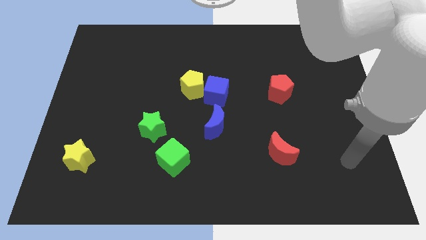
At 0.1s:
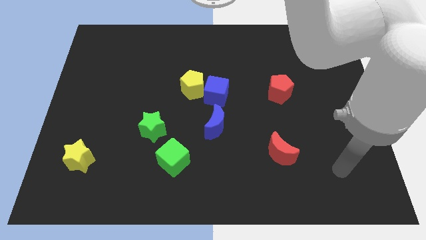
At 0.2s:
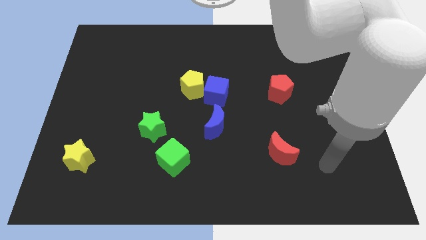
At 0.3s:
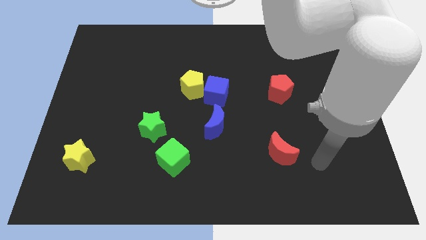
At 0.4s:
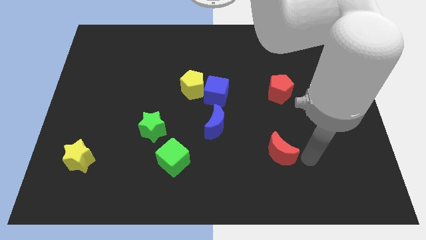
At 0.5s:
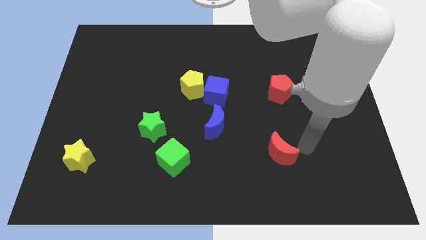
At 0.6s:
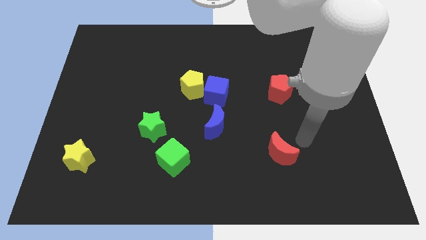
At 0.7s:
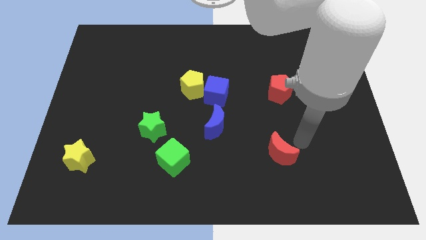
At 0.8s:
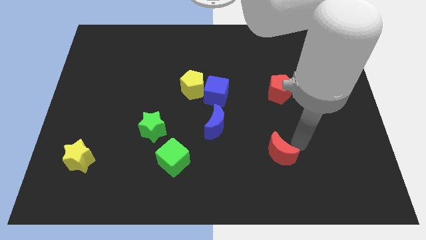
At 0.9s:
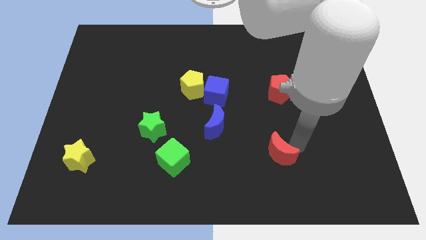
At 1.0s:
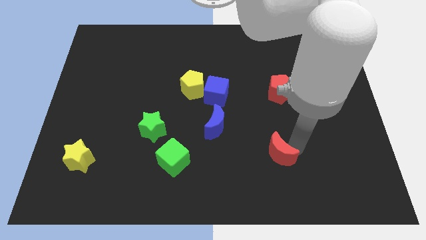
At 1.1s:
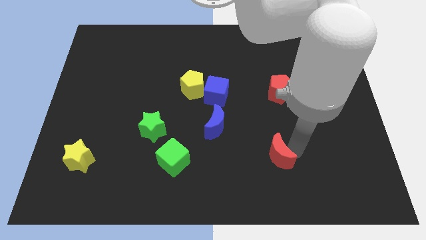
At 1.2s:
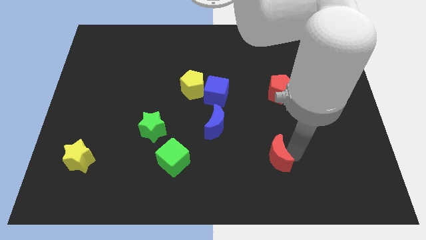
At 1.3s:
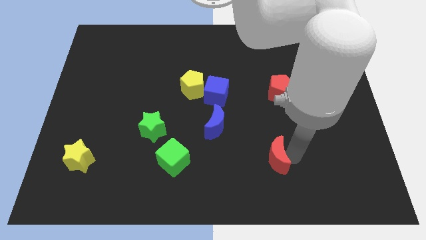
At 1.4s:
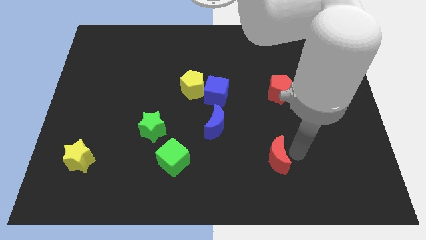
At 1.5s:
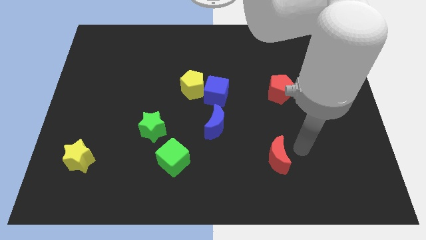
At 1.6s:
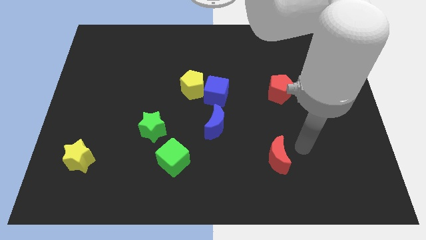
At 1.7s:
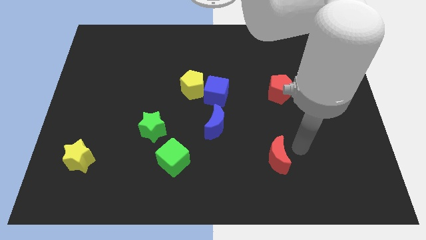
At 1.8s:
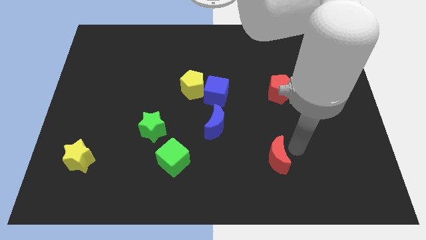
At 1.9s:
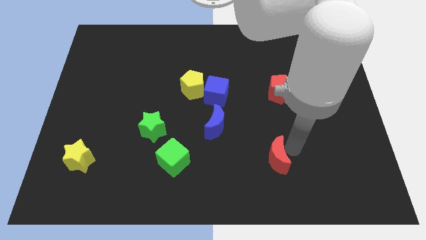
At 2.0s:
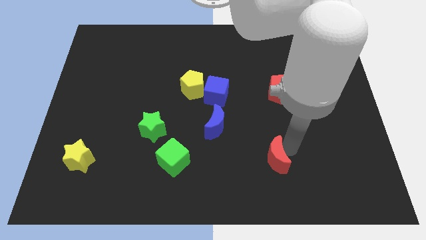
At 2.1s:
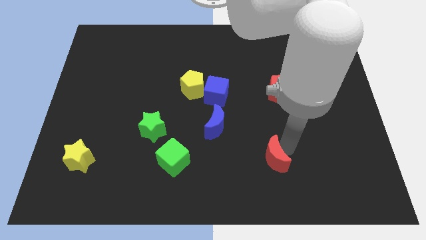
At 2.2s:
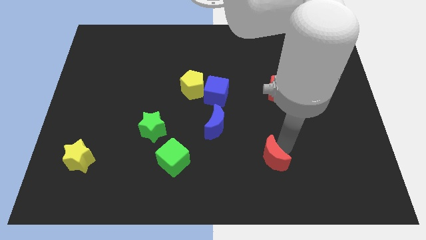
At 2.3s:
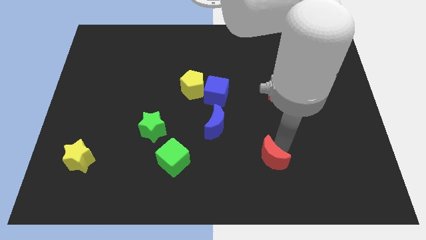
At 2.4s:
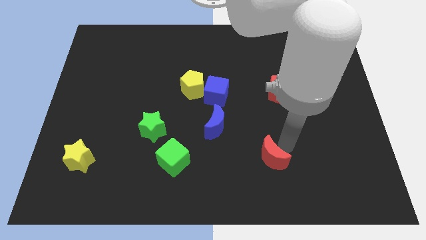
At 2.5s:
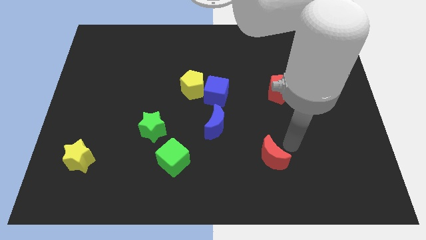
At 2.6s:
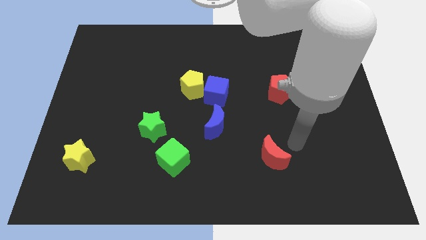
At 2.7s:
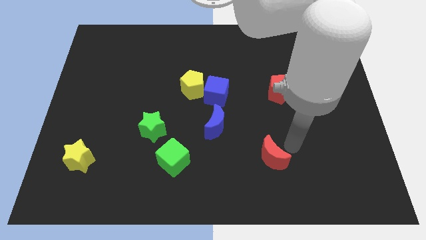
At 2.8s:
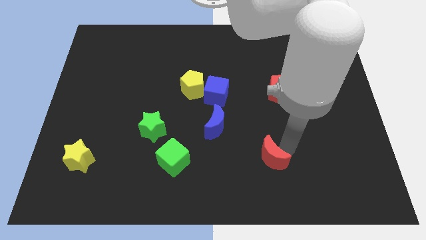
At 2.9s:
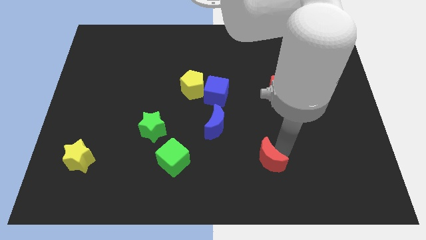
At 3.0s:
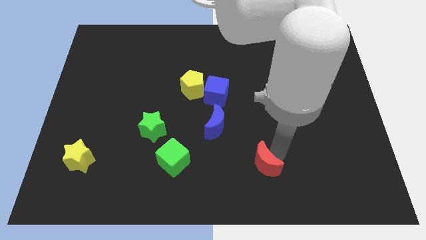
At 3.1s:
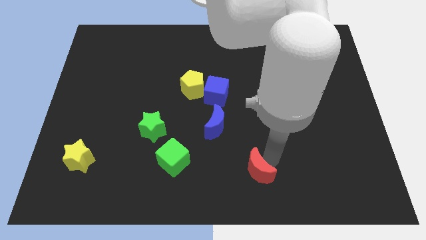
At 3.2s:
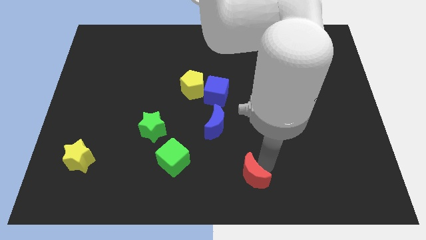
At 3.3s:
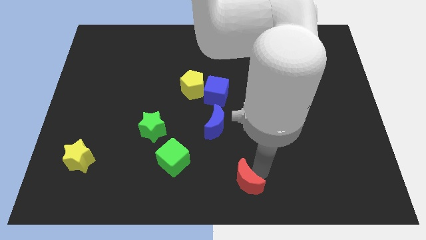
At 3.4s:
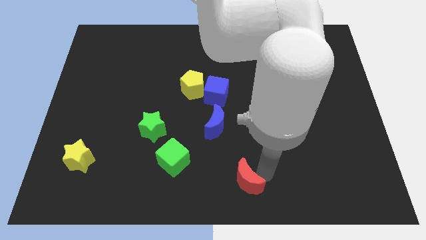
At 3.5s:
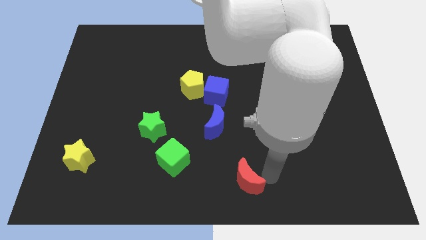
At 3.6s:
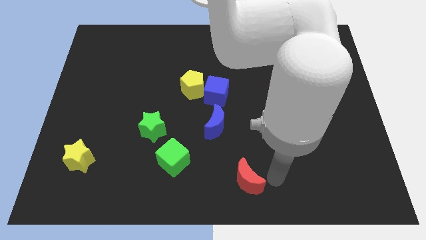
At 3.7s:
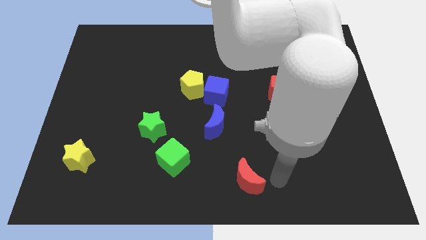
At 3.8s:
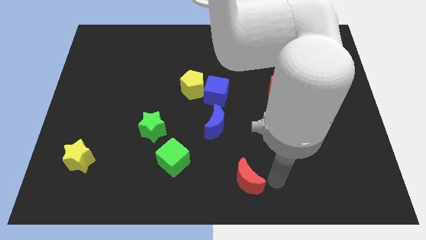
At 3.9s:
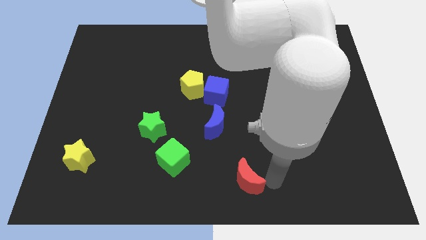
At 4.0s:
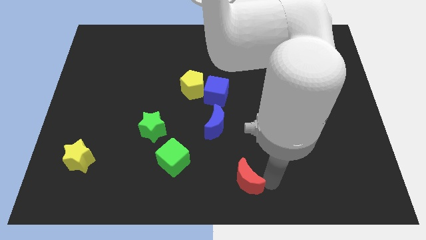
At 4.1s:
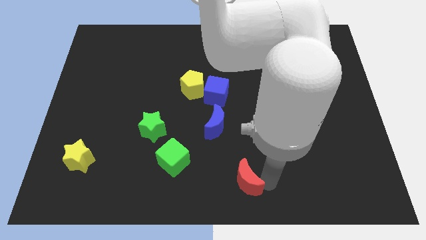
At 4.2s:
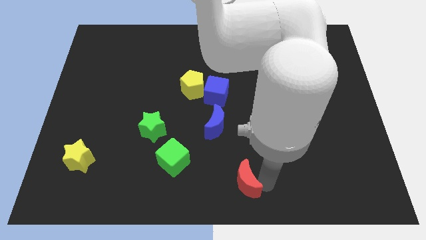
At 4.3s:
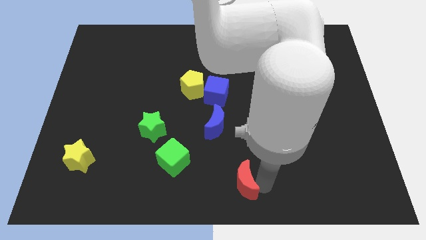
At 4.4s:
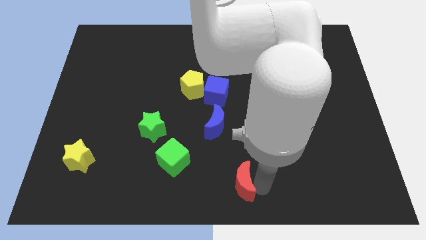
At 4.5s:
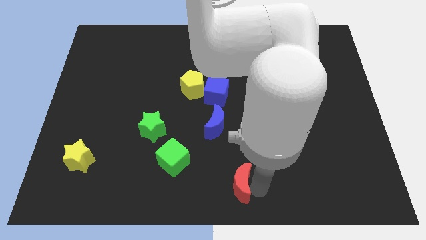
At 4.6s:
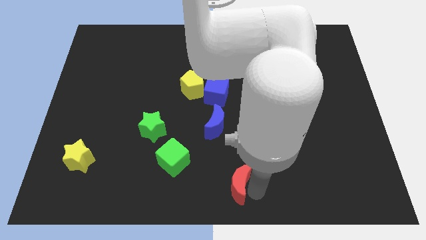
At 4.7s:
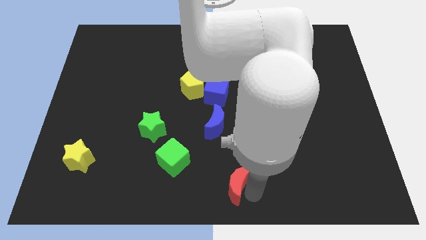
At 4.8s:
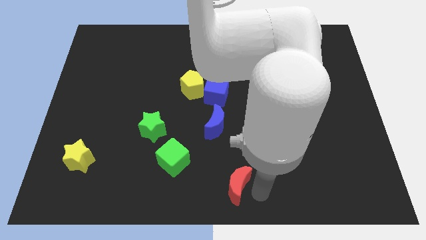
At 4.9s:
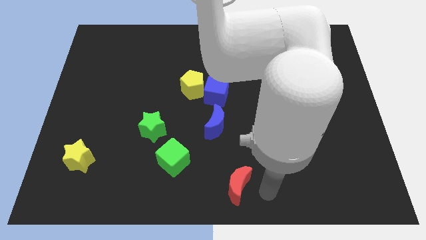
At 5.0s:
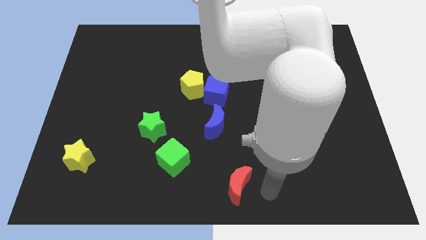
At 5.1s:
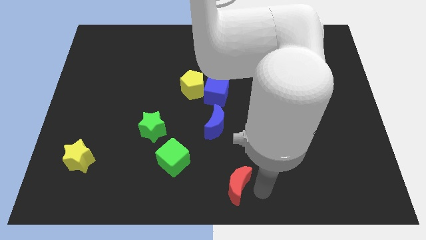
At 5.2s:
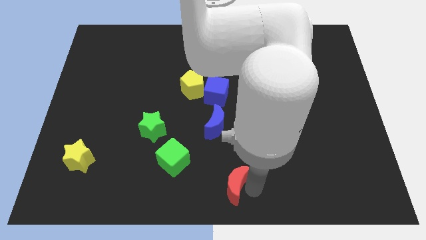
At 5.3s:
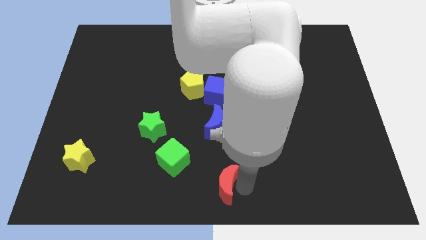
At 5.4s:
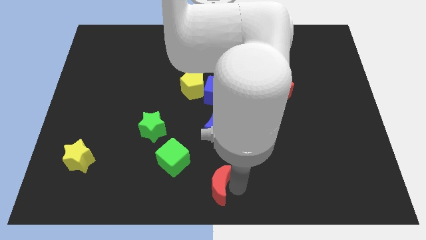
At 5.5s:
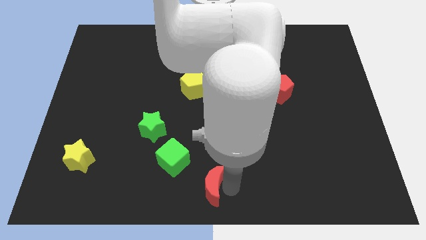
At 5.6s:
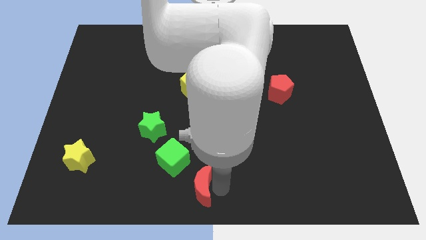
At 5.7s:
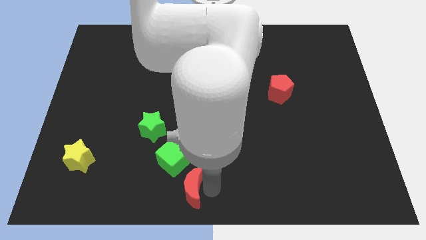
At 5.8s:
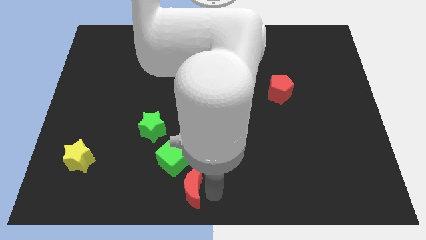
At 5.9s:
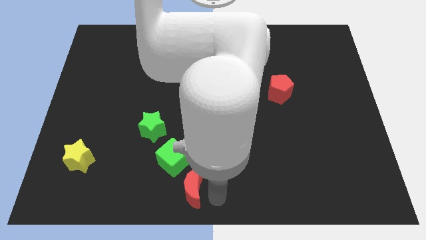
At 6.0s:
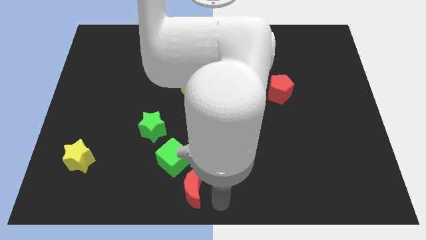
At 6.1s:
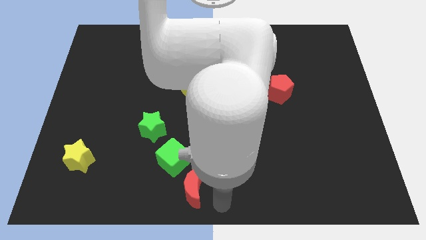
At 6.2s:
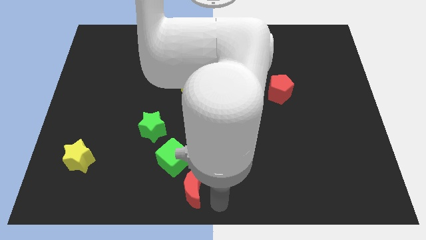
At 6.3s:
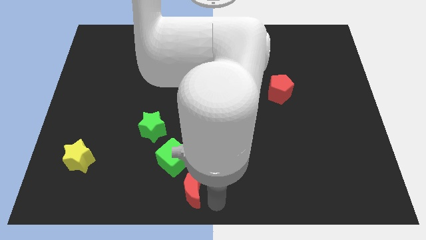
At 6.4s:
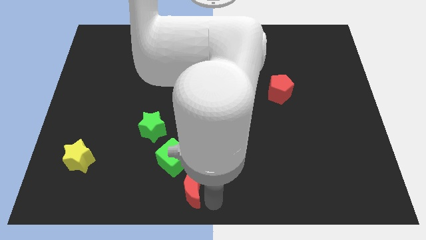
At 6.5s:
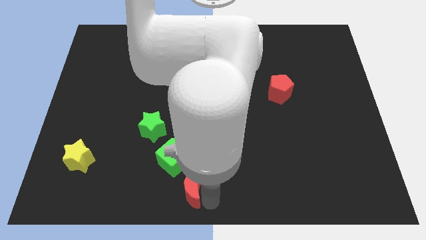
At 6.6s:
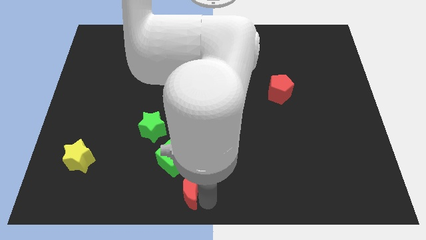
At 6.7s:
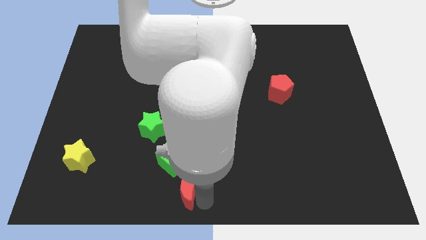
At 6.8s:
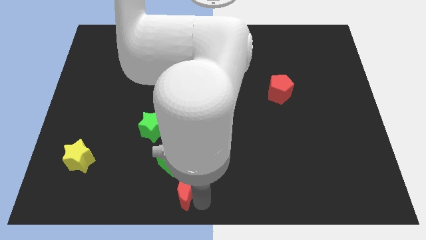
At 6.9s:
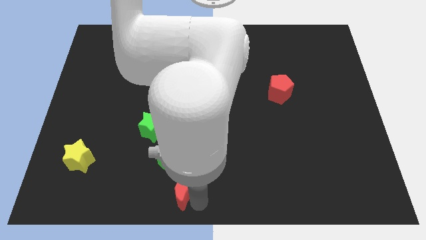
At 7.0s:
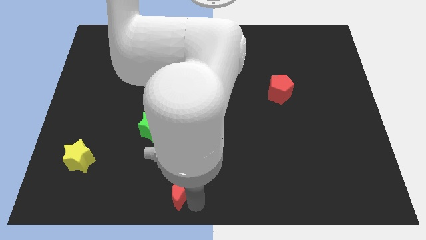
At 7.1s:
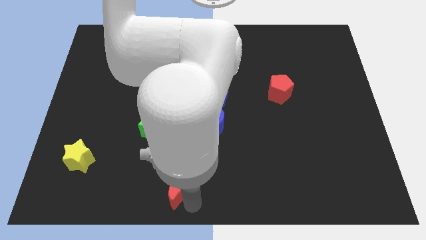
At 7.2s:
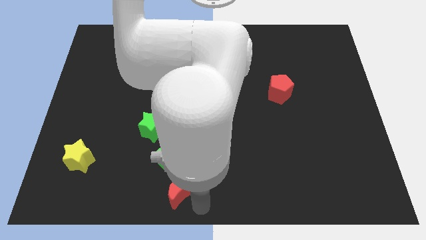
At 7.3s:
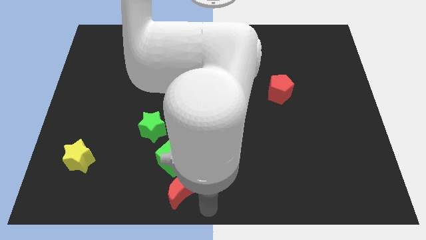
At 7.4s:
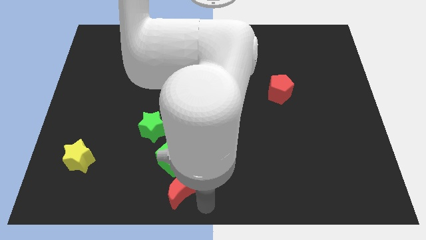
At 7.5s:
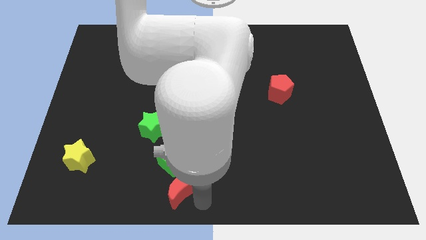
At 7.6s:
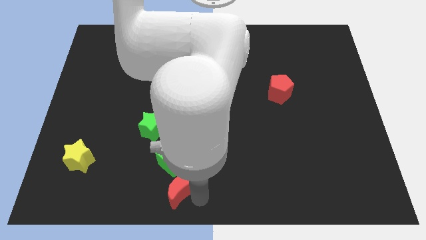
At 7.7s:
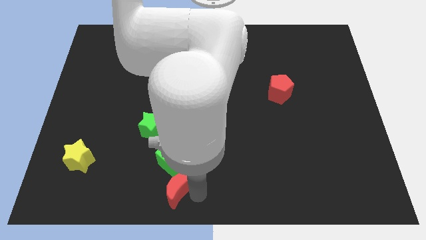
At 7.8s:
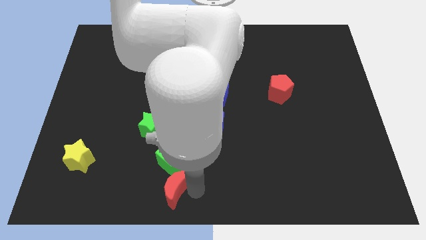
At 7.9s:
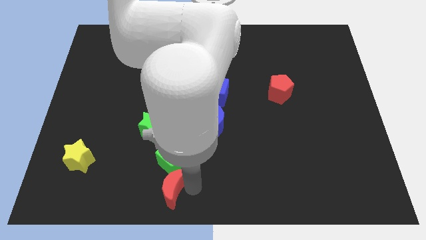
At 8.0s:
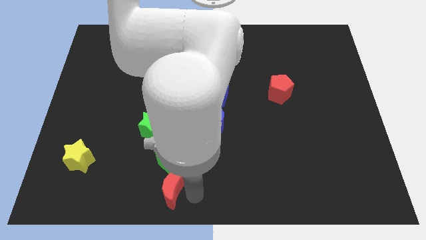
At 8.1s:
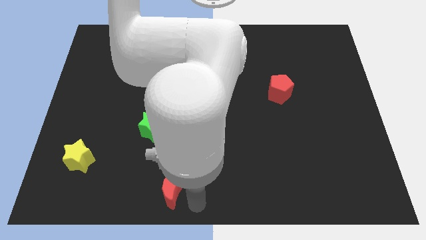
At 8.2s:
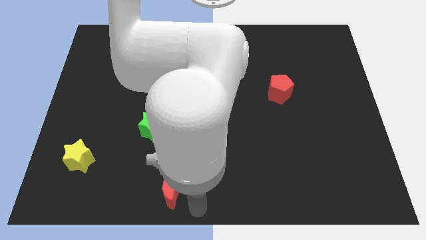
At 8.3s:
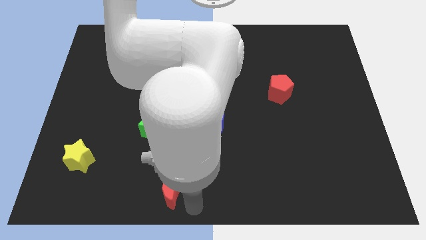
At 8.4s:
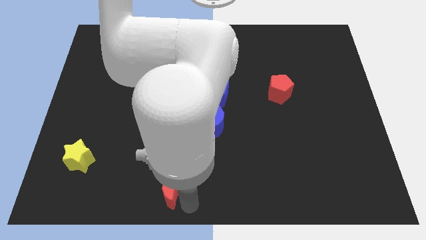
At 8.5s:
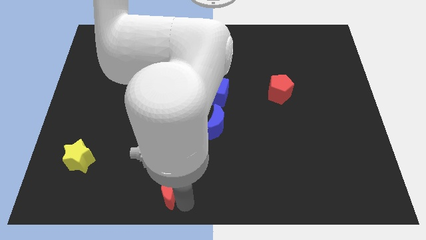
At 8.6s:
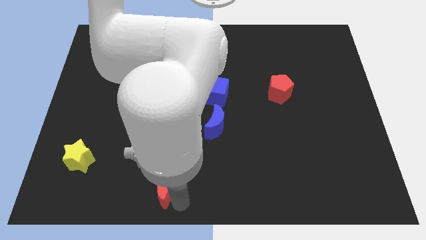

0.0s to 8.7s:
move the red moon to the left
